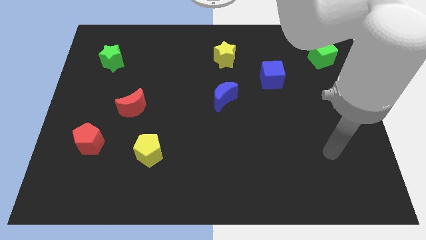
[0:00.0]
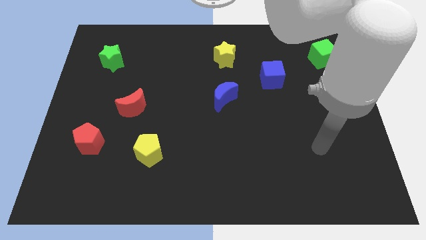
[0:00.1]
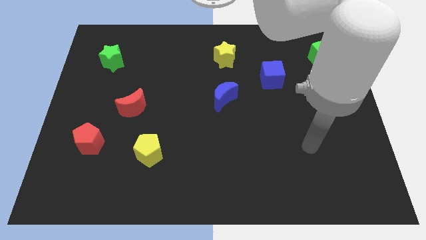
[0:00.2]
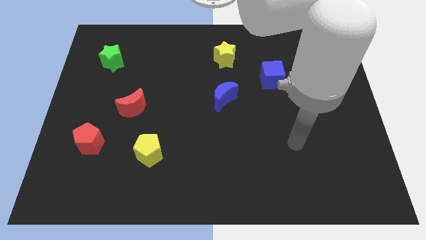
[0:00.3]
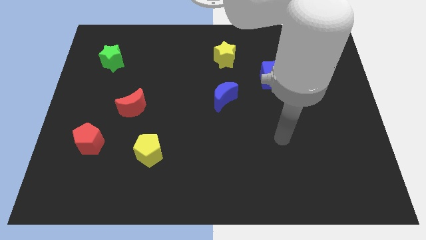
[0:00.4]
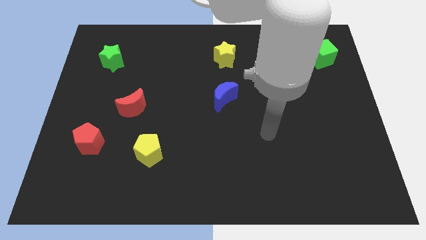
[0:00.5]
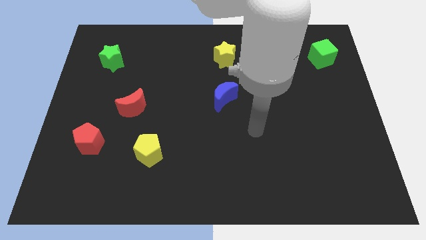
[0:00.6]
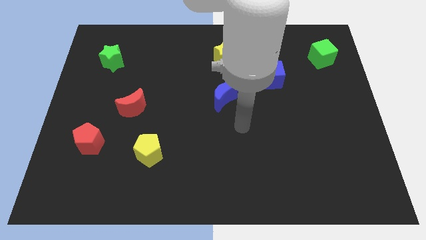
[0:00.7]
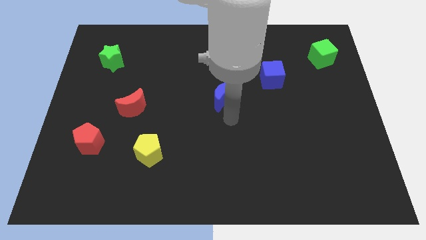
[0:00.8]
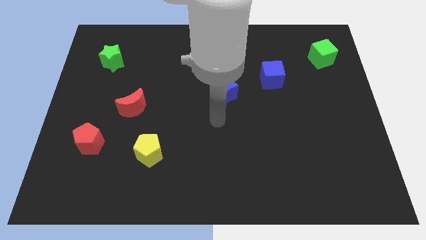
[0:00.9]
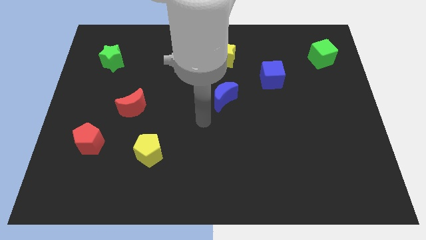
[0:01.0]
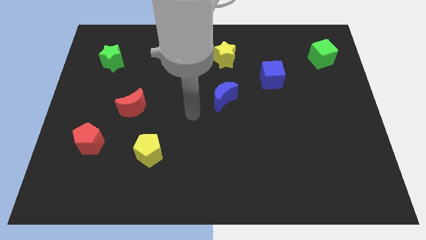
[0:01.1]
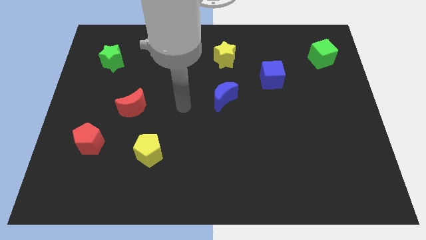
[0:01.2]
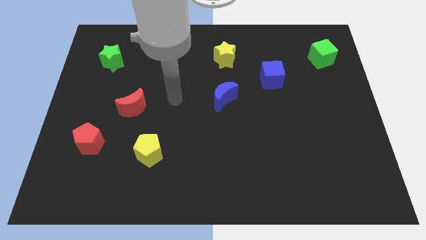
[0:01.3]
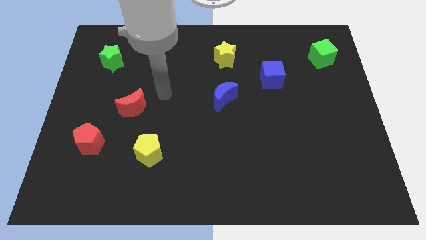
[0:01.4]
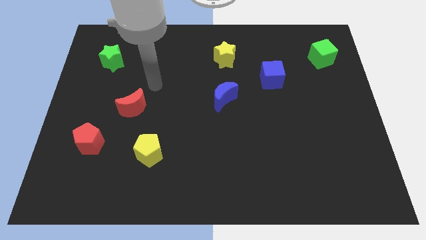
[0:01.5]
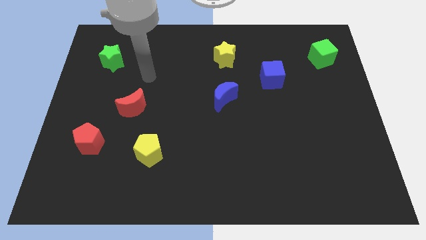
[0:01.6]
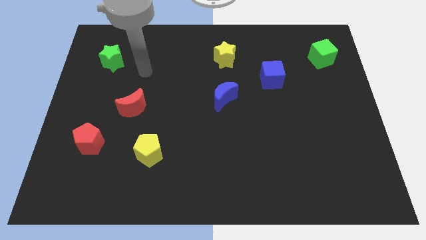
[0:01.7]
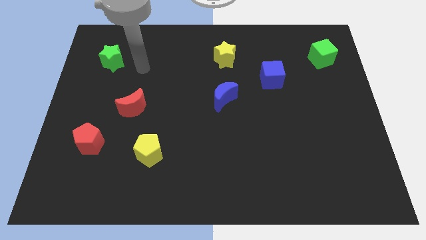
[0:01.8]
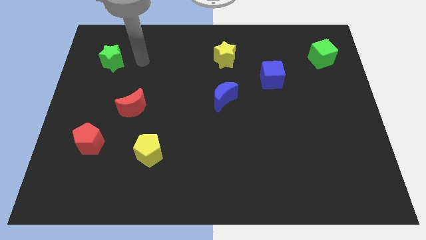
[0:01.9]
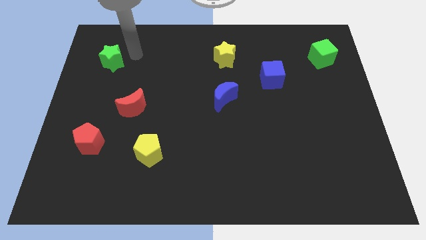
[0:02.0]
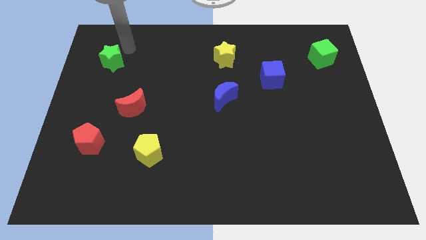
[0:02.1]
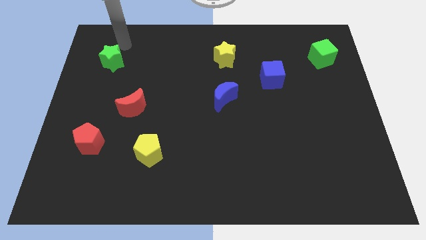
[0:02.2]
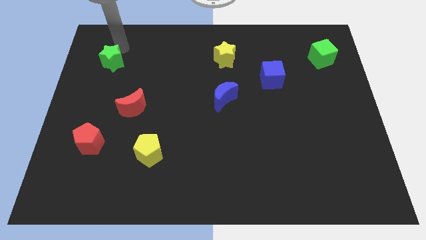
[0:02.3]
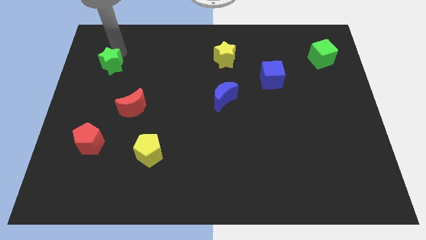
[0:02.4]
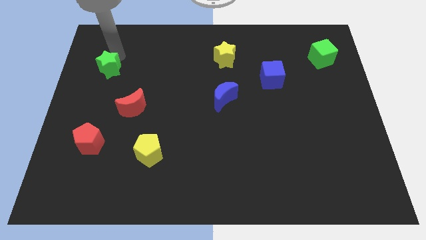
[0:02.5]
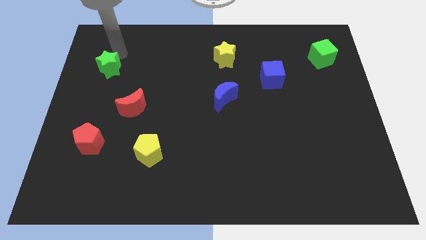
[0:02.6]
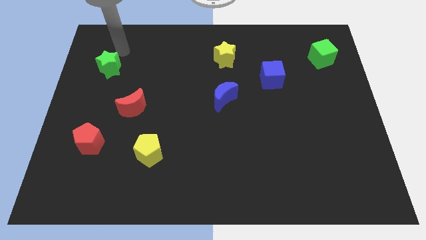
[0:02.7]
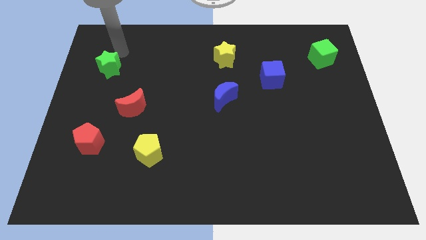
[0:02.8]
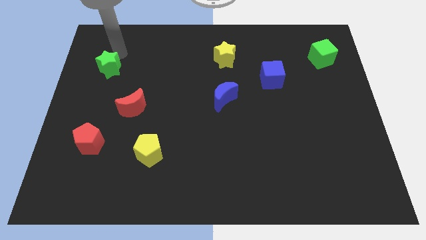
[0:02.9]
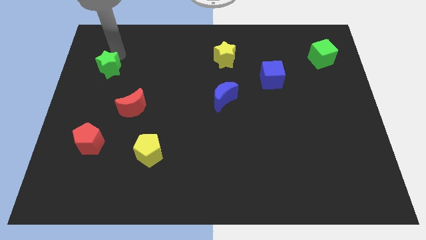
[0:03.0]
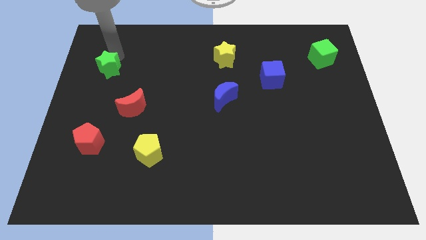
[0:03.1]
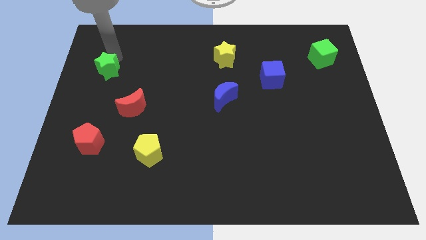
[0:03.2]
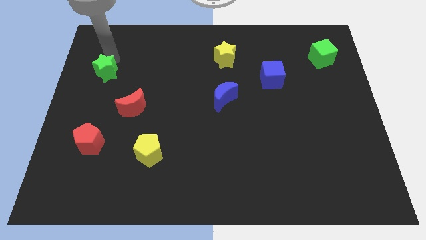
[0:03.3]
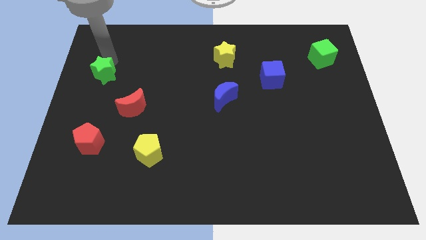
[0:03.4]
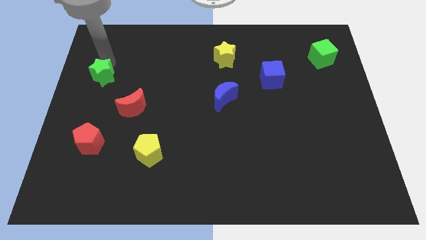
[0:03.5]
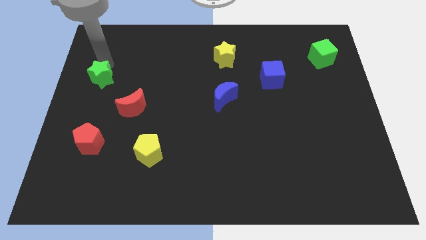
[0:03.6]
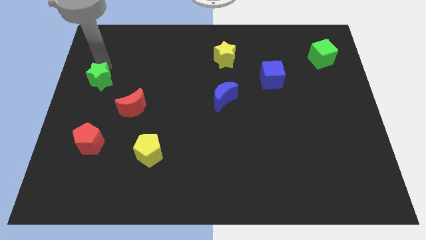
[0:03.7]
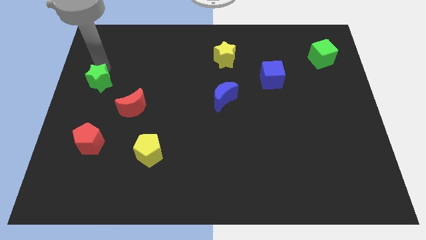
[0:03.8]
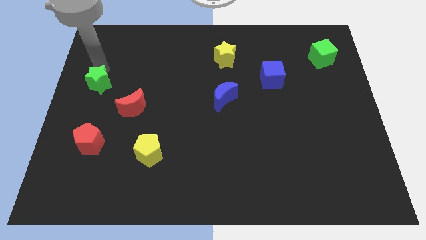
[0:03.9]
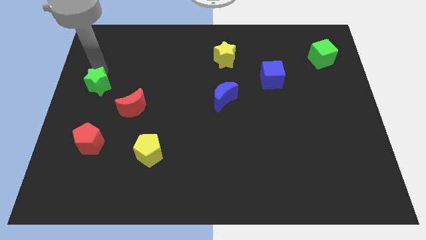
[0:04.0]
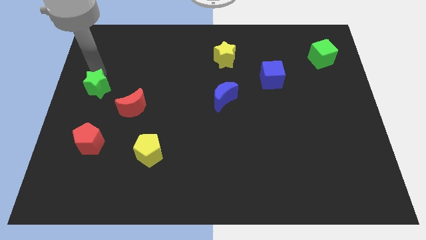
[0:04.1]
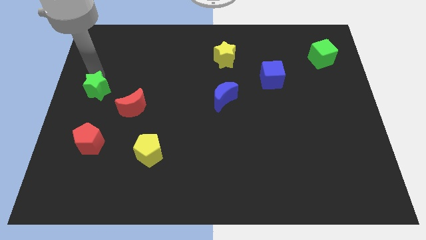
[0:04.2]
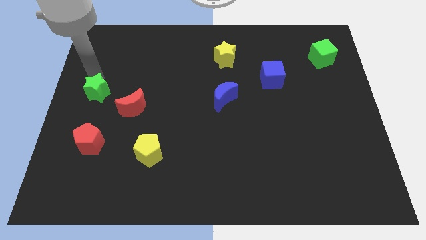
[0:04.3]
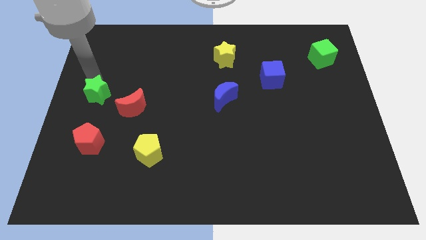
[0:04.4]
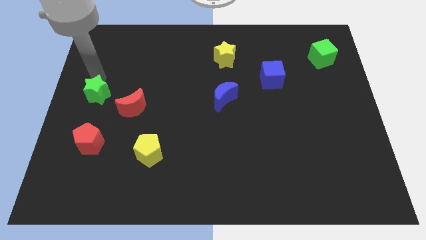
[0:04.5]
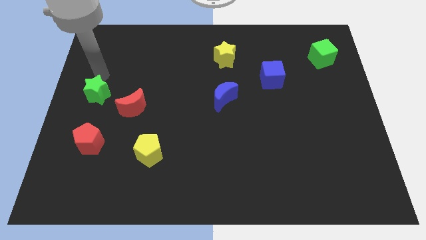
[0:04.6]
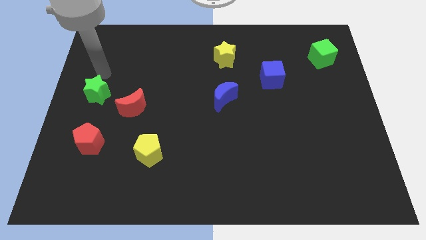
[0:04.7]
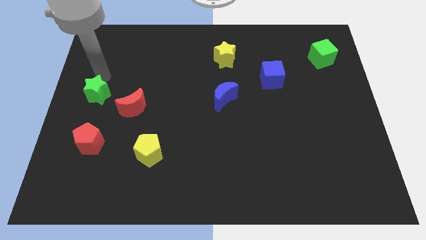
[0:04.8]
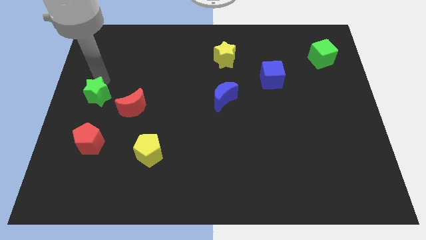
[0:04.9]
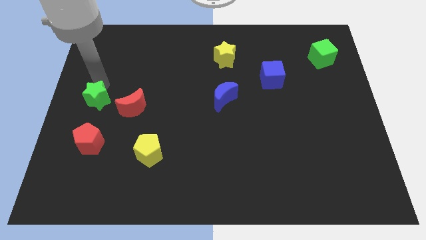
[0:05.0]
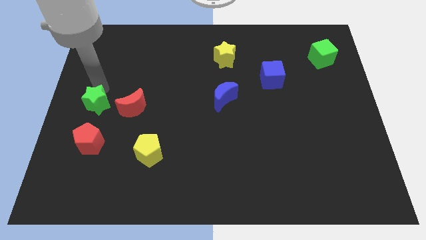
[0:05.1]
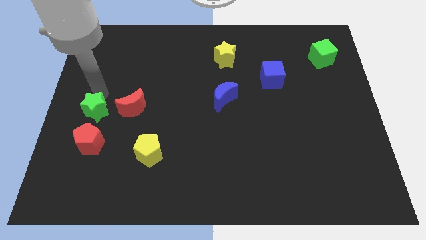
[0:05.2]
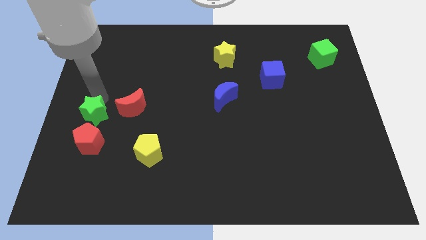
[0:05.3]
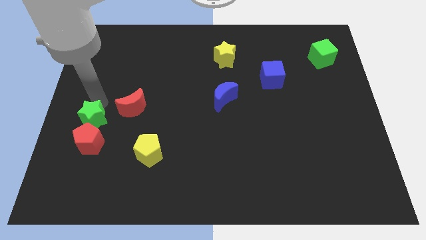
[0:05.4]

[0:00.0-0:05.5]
slide the green star close to the red pentagon

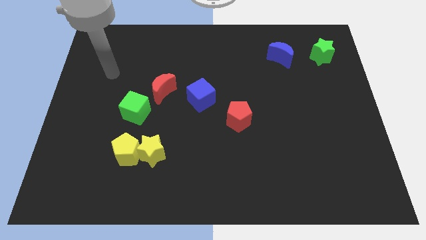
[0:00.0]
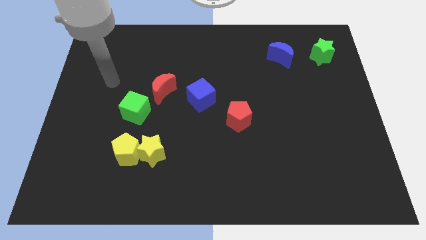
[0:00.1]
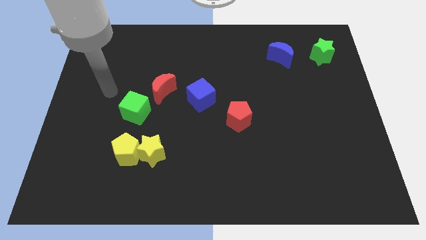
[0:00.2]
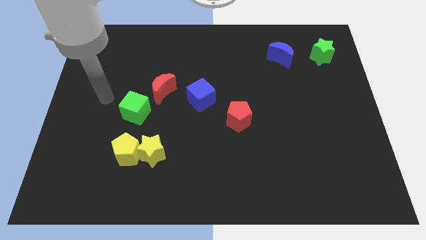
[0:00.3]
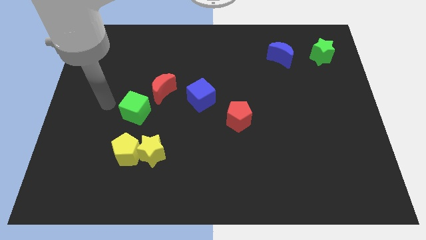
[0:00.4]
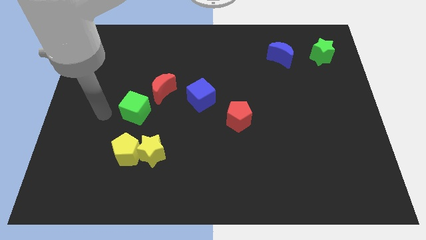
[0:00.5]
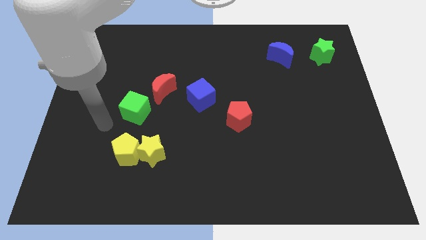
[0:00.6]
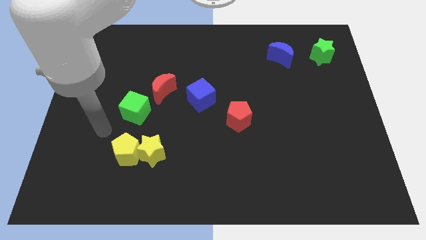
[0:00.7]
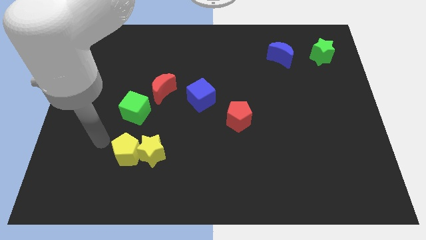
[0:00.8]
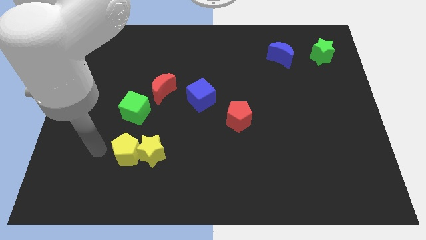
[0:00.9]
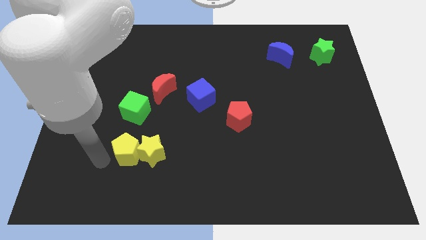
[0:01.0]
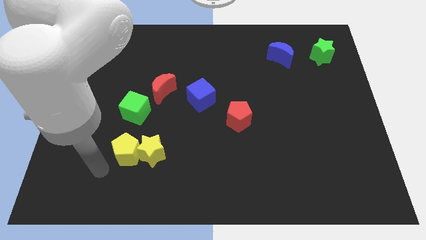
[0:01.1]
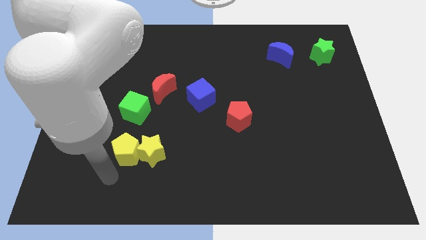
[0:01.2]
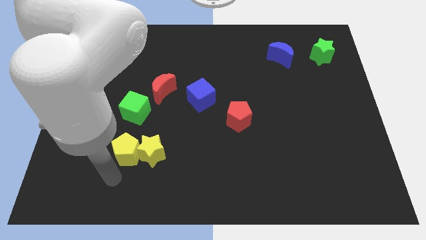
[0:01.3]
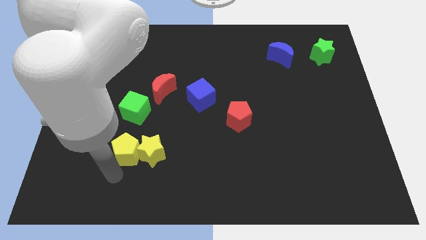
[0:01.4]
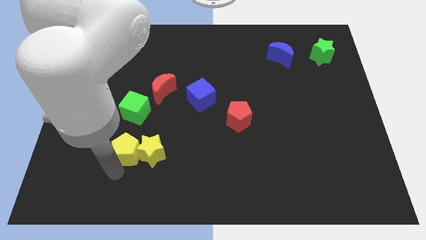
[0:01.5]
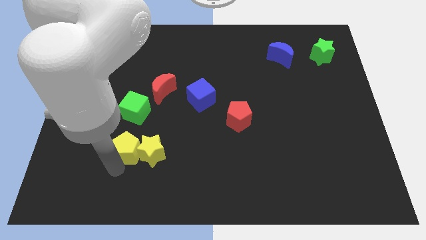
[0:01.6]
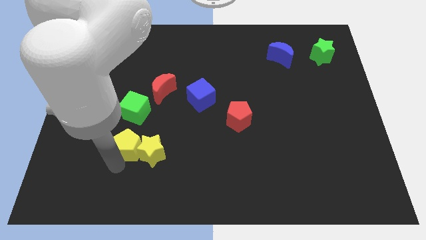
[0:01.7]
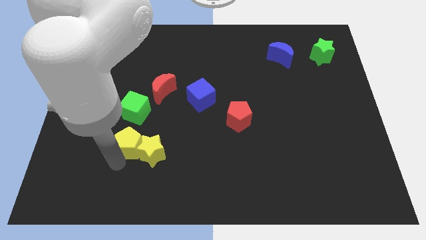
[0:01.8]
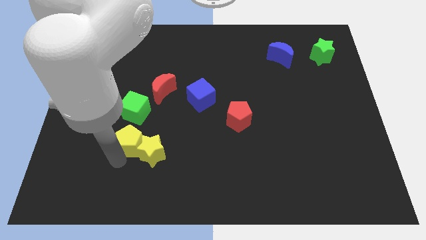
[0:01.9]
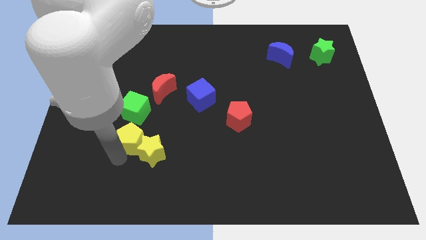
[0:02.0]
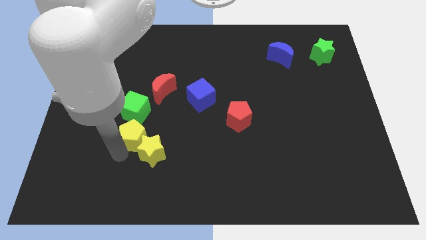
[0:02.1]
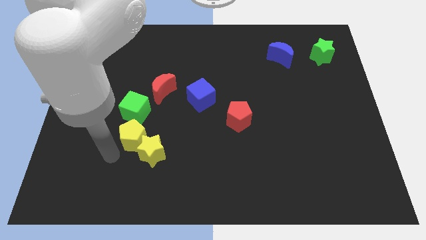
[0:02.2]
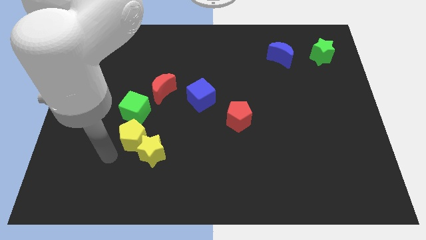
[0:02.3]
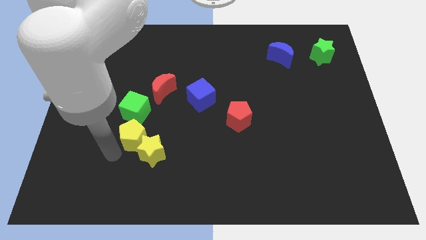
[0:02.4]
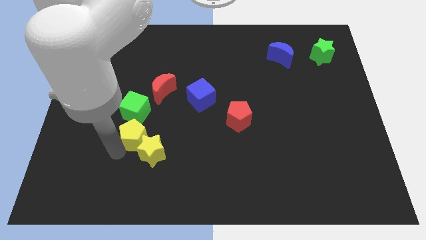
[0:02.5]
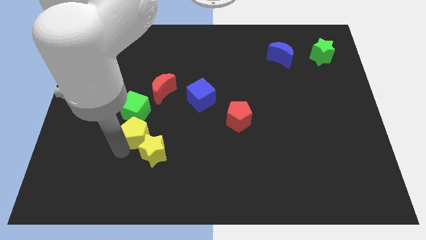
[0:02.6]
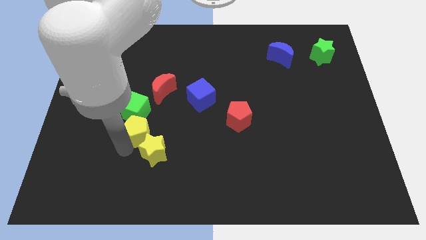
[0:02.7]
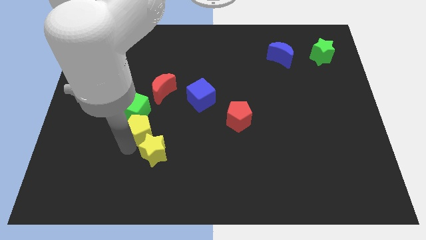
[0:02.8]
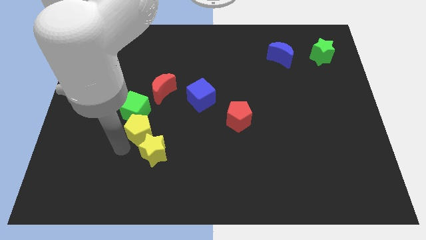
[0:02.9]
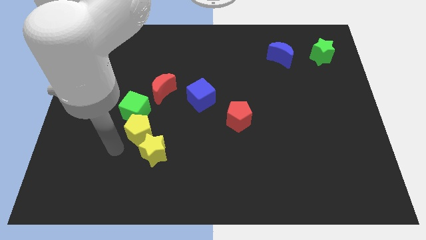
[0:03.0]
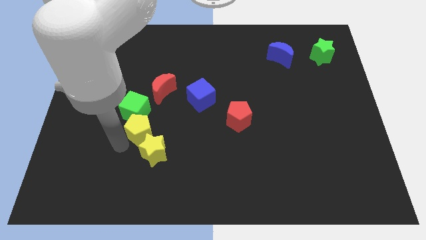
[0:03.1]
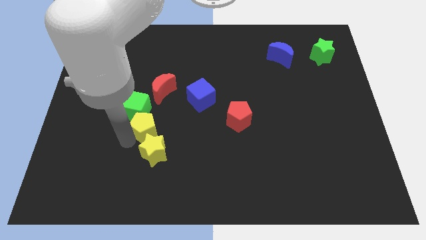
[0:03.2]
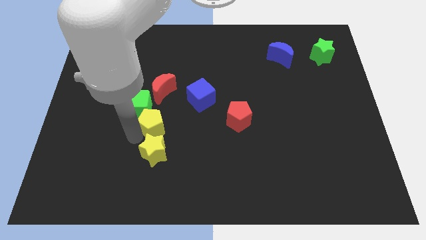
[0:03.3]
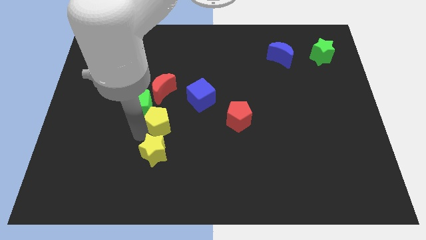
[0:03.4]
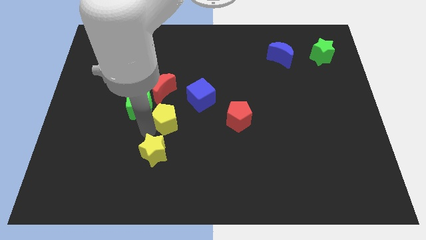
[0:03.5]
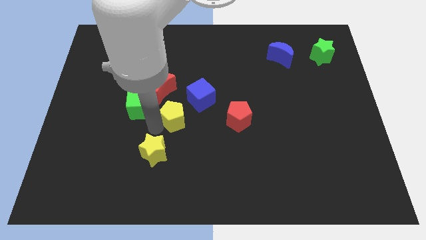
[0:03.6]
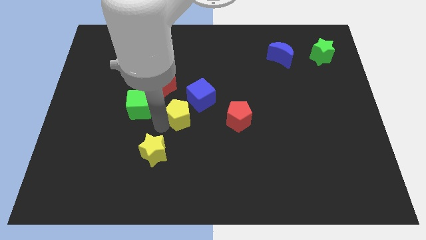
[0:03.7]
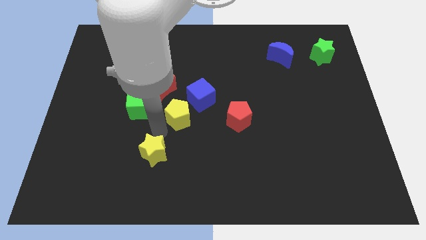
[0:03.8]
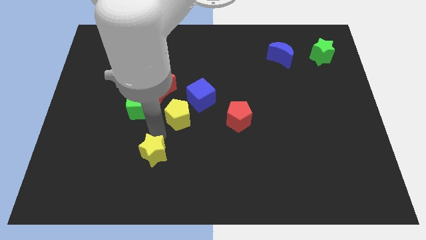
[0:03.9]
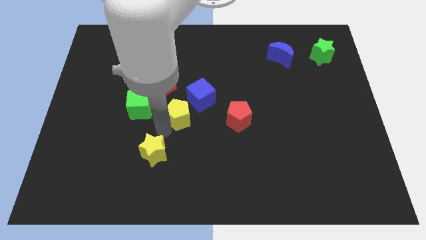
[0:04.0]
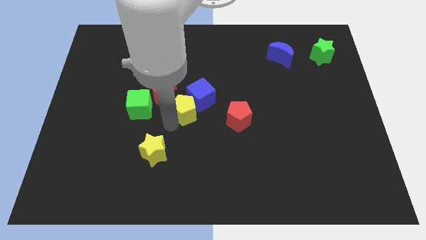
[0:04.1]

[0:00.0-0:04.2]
slide the yellow pentagon to the blue cube
